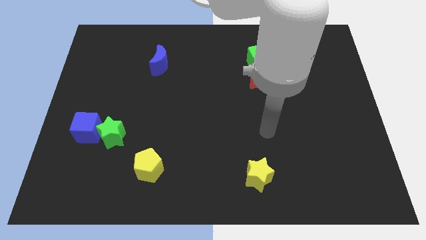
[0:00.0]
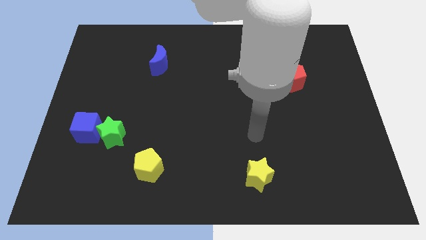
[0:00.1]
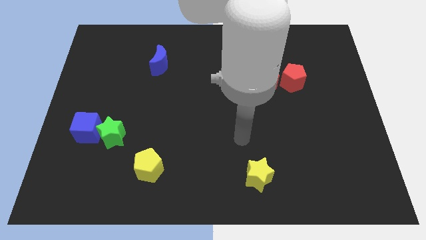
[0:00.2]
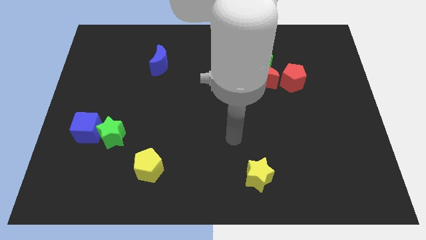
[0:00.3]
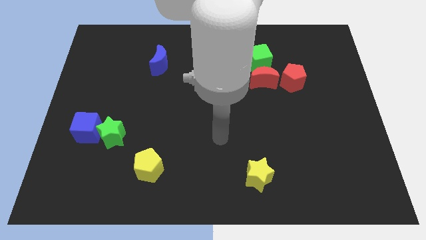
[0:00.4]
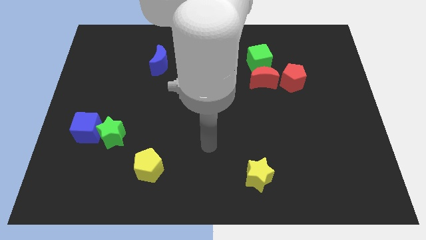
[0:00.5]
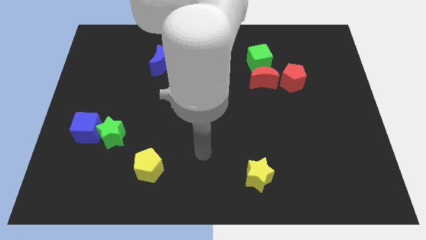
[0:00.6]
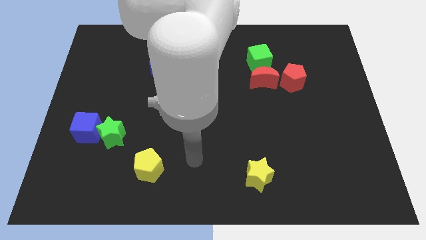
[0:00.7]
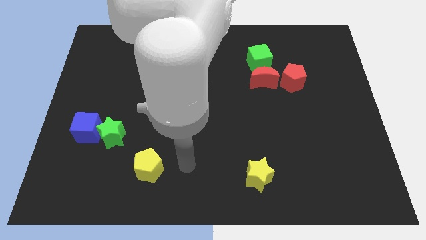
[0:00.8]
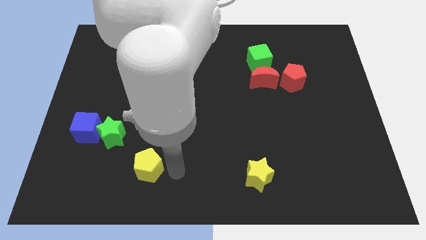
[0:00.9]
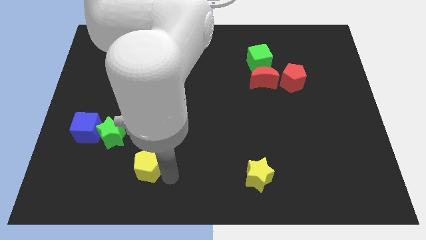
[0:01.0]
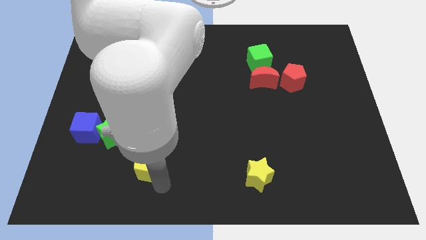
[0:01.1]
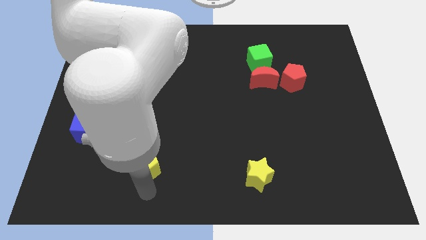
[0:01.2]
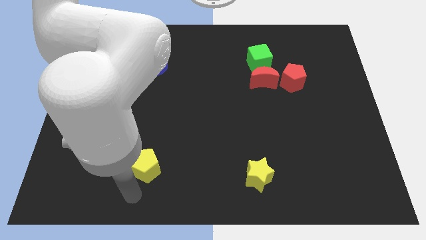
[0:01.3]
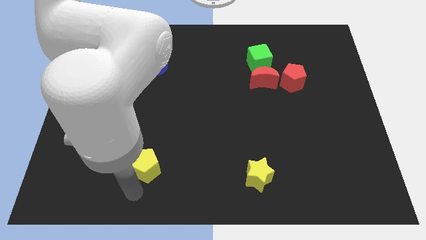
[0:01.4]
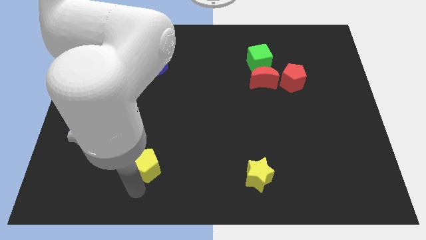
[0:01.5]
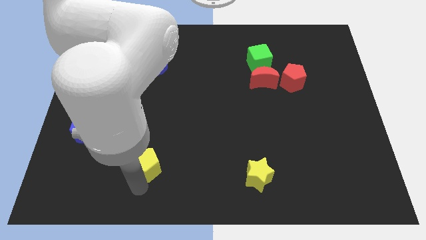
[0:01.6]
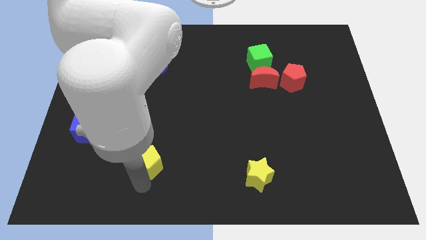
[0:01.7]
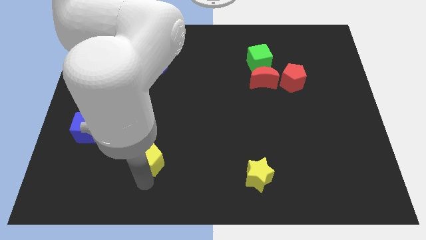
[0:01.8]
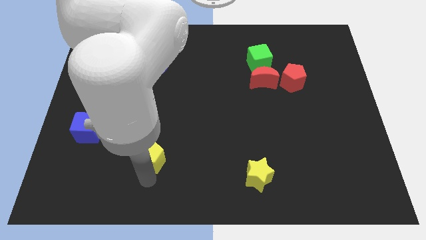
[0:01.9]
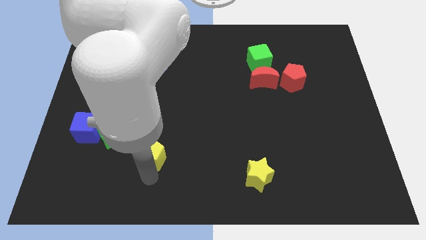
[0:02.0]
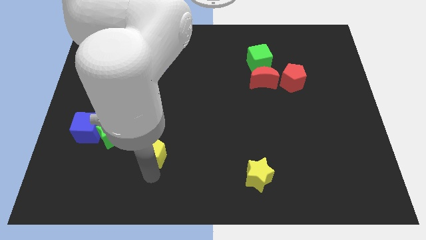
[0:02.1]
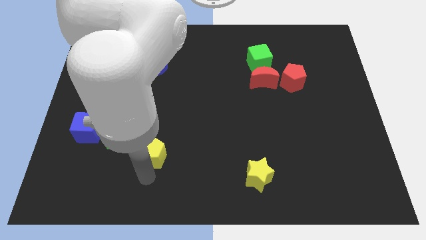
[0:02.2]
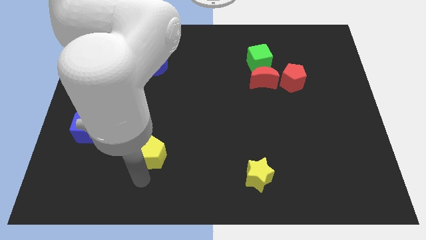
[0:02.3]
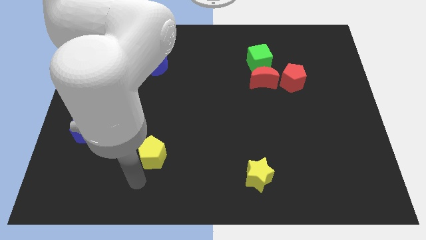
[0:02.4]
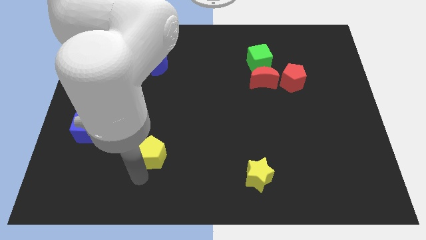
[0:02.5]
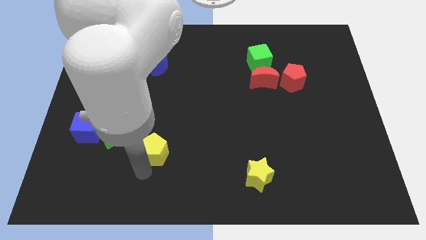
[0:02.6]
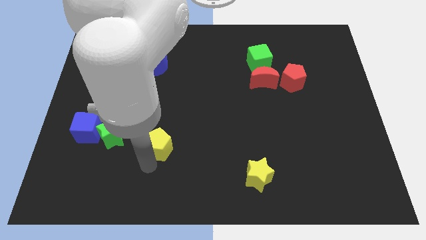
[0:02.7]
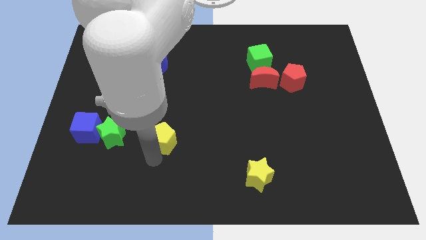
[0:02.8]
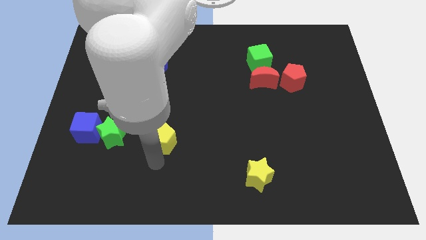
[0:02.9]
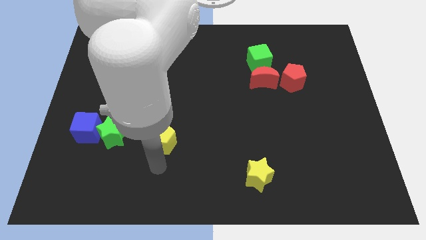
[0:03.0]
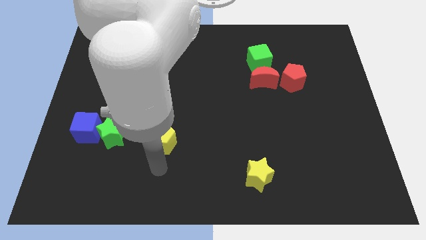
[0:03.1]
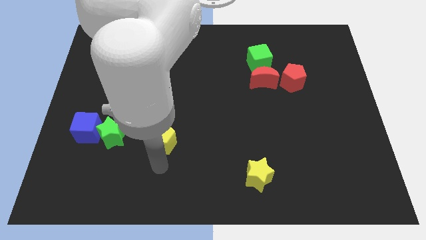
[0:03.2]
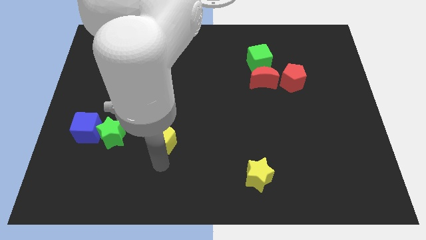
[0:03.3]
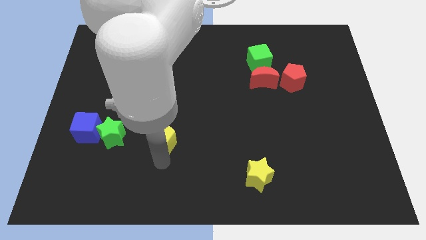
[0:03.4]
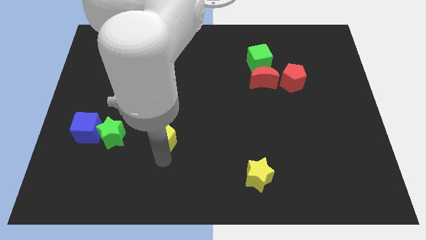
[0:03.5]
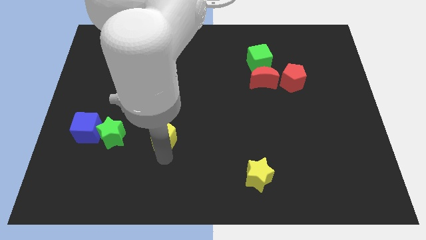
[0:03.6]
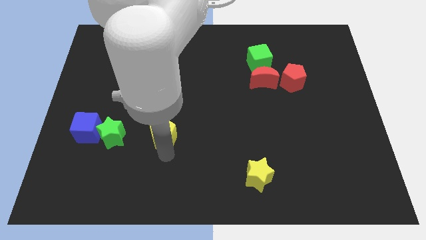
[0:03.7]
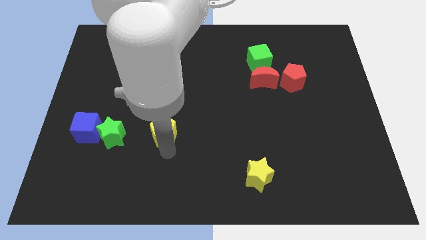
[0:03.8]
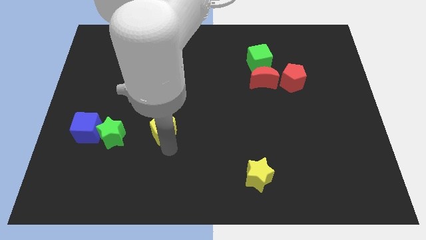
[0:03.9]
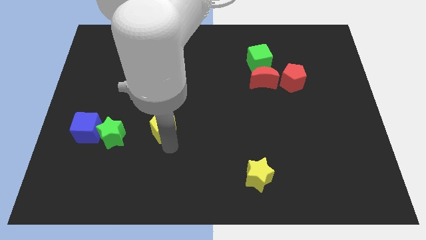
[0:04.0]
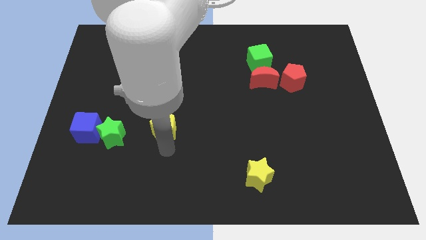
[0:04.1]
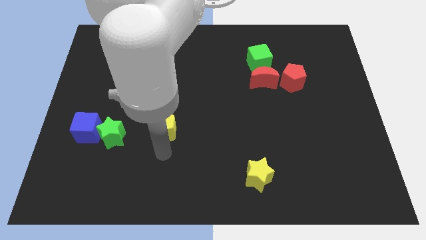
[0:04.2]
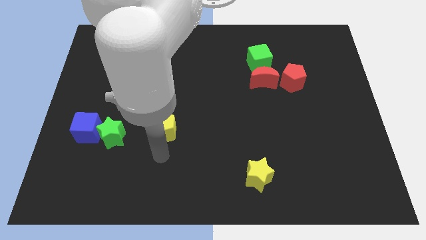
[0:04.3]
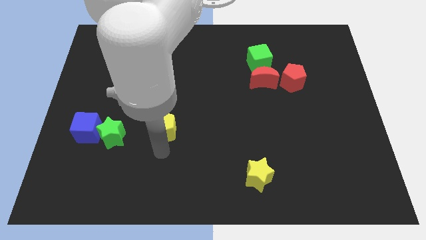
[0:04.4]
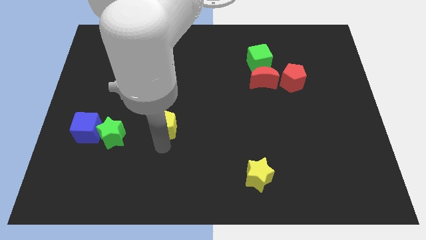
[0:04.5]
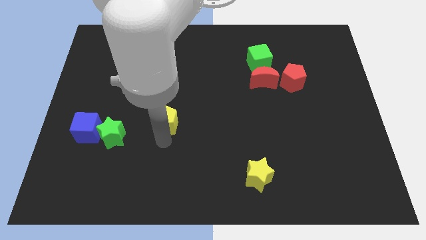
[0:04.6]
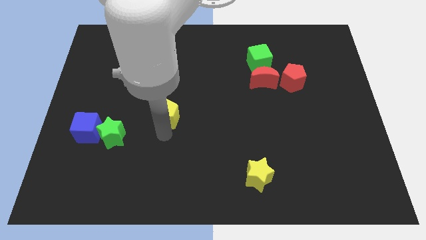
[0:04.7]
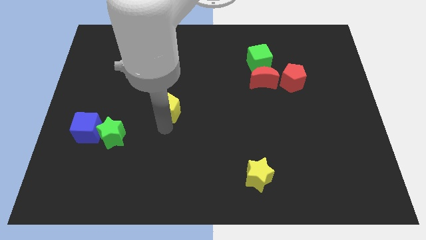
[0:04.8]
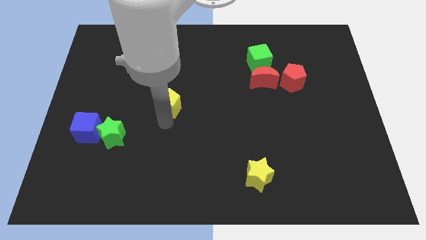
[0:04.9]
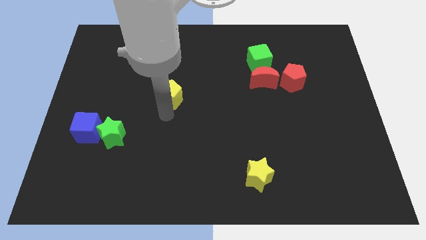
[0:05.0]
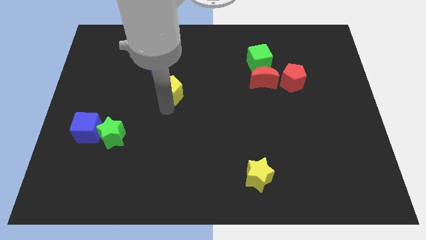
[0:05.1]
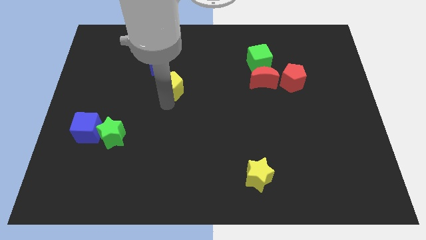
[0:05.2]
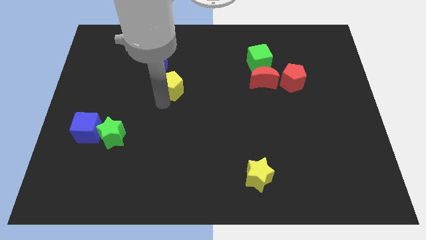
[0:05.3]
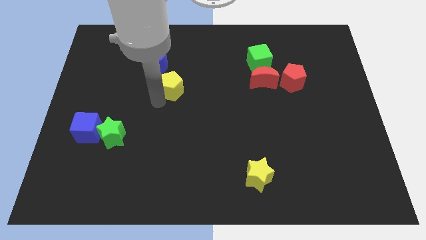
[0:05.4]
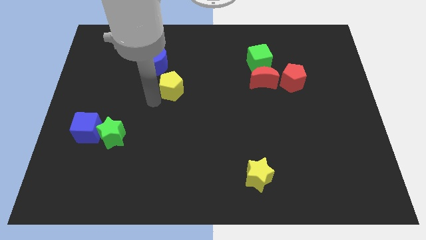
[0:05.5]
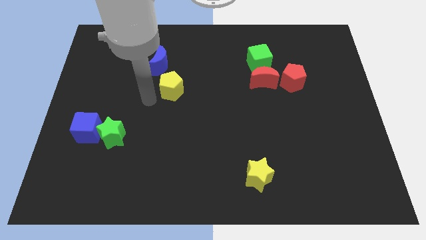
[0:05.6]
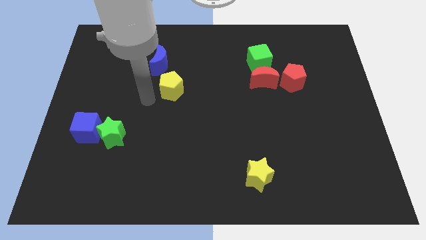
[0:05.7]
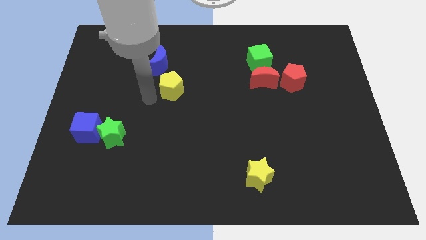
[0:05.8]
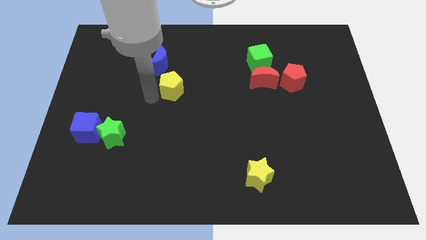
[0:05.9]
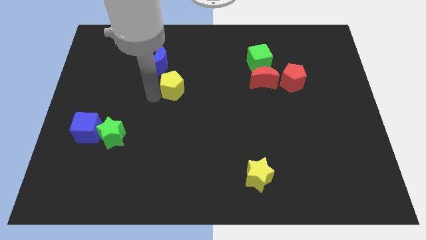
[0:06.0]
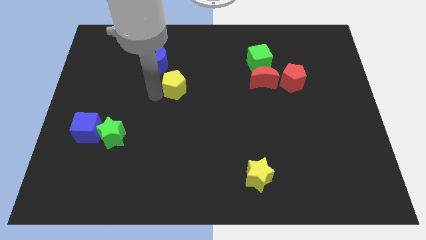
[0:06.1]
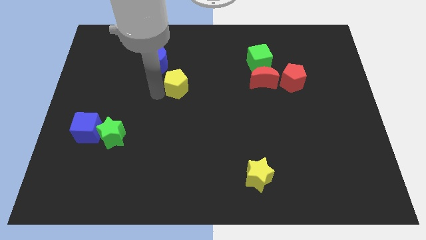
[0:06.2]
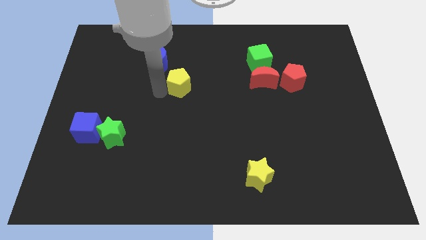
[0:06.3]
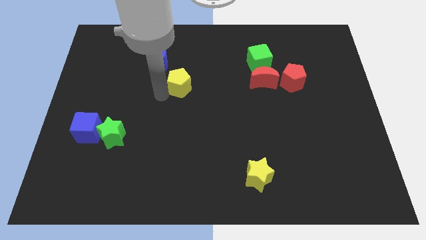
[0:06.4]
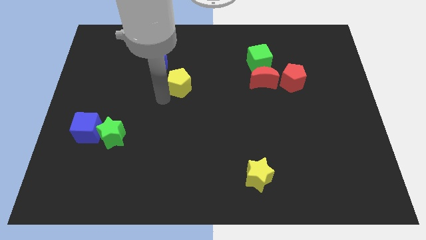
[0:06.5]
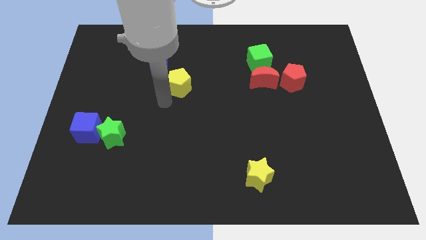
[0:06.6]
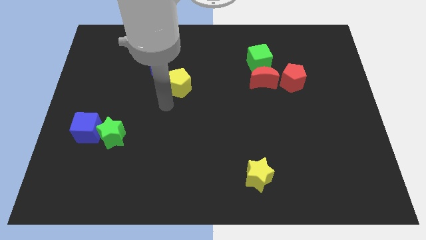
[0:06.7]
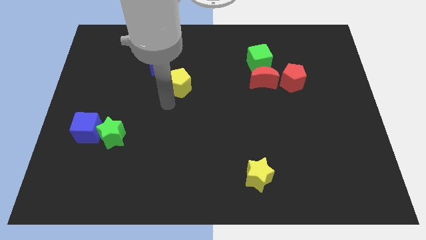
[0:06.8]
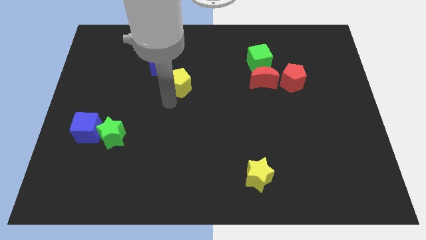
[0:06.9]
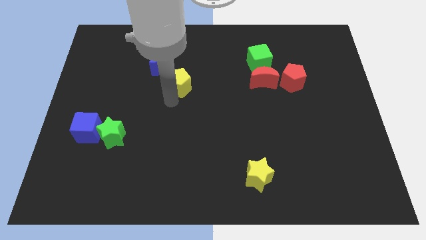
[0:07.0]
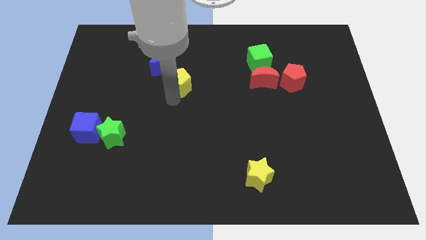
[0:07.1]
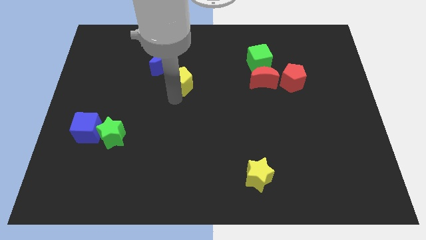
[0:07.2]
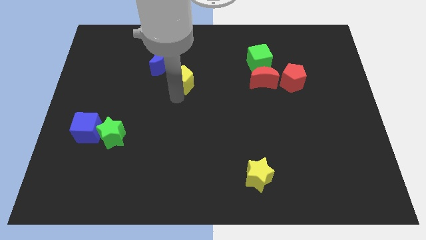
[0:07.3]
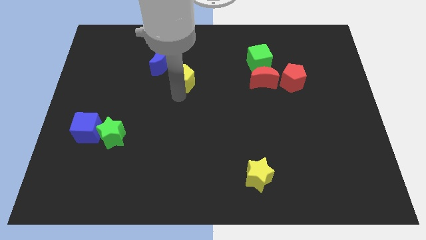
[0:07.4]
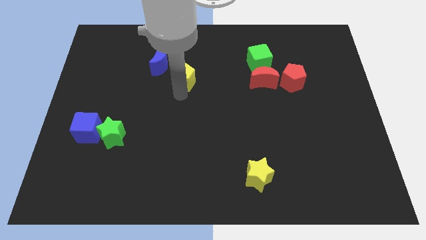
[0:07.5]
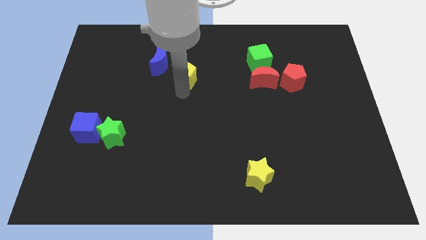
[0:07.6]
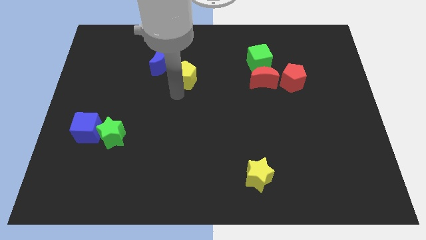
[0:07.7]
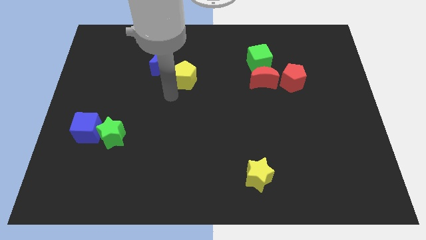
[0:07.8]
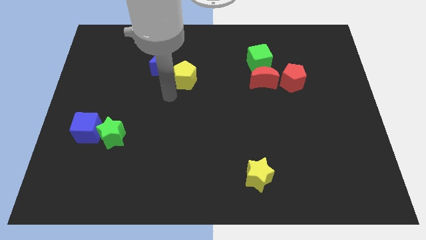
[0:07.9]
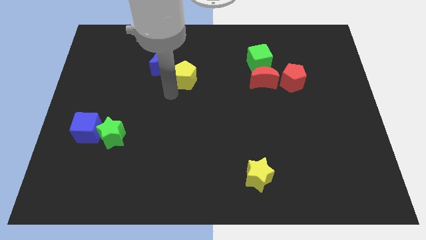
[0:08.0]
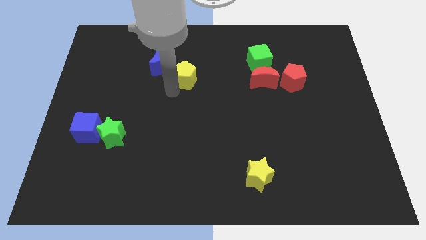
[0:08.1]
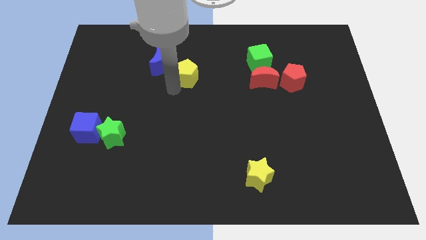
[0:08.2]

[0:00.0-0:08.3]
move the yellow pentagon right of the blue moon
